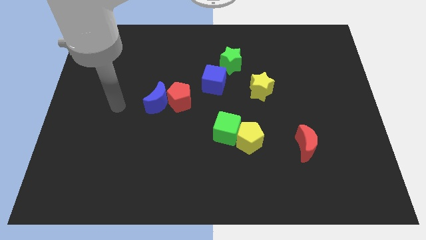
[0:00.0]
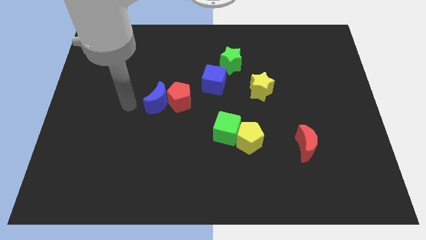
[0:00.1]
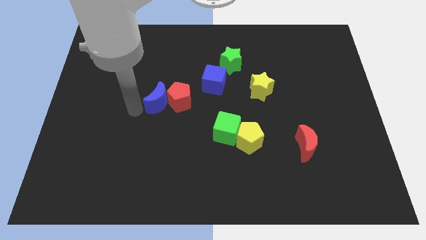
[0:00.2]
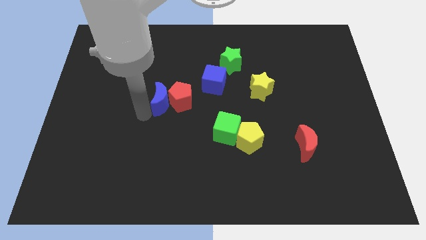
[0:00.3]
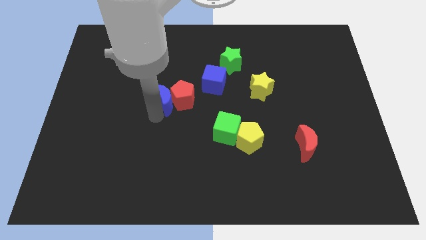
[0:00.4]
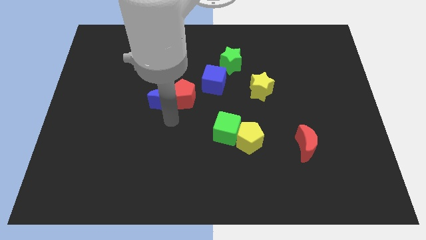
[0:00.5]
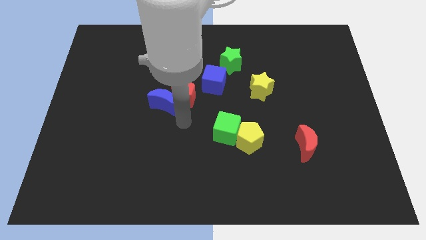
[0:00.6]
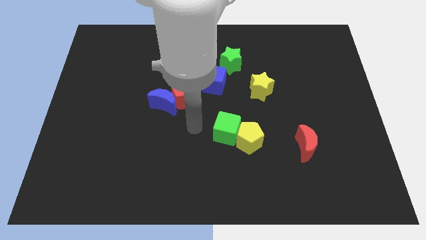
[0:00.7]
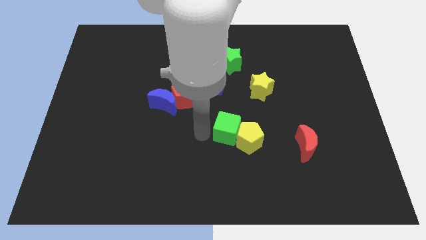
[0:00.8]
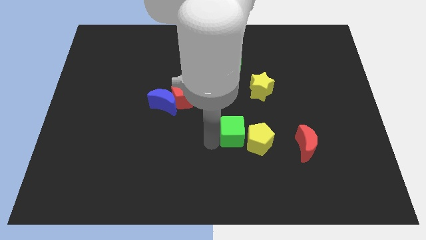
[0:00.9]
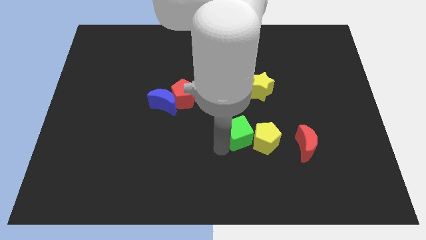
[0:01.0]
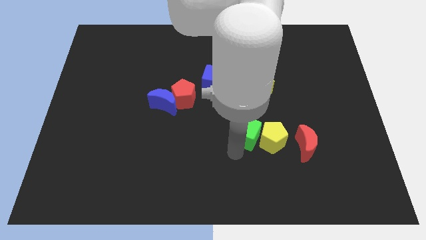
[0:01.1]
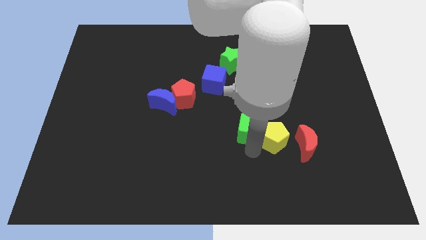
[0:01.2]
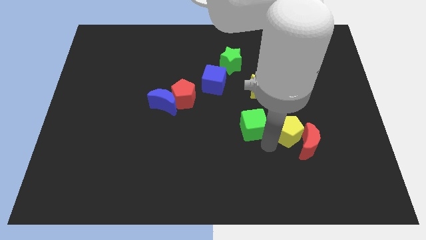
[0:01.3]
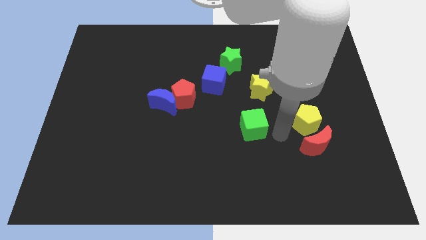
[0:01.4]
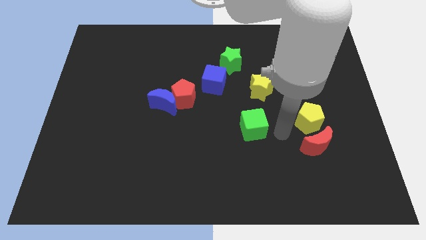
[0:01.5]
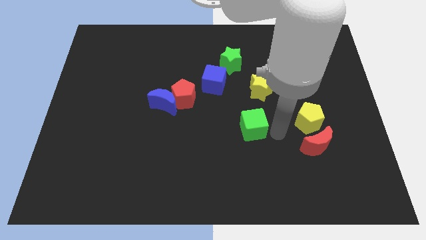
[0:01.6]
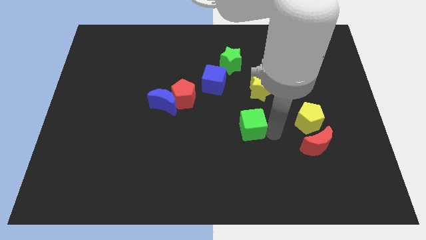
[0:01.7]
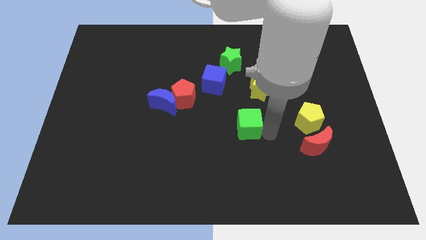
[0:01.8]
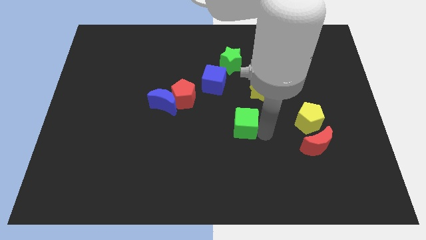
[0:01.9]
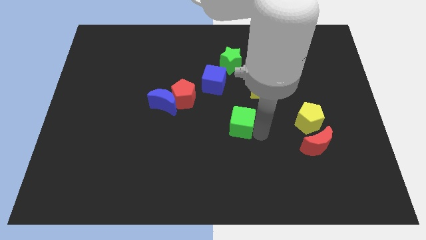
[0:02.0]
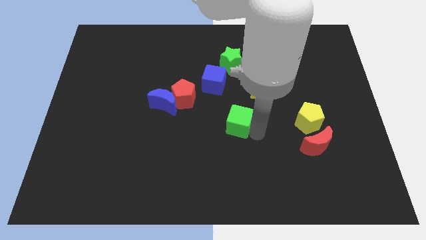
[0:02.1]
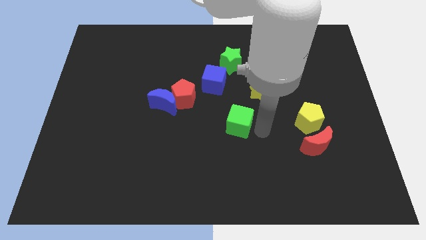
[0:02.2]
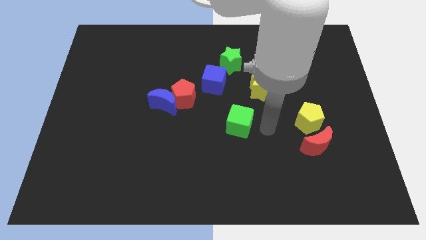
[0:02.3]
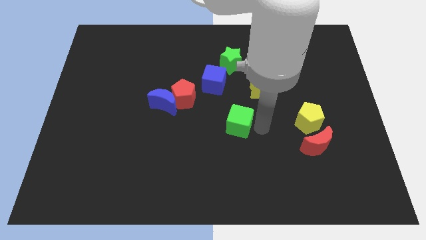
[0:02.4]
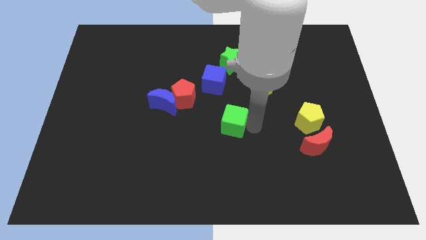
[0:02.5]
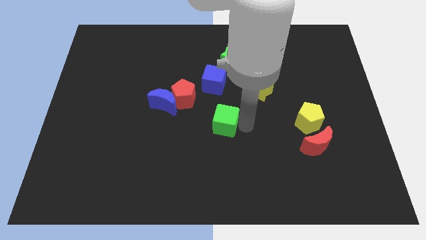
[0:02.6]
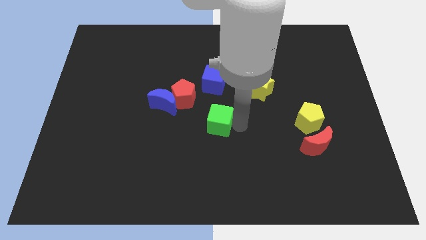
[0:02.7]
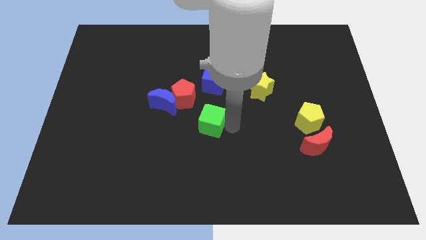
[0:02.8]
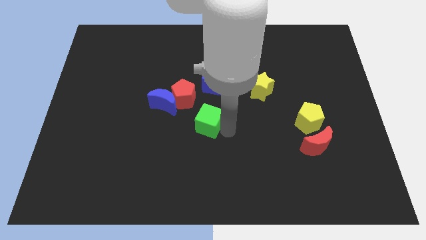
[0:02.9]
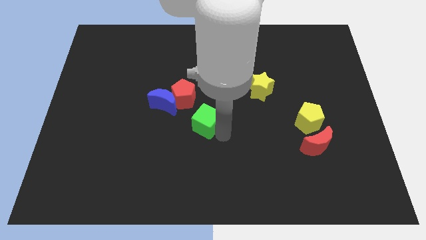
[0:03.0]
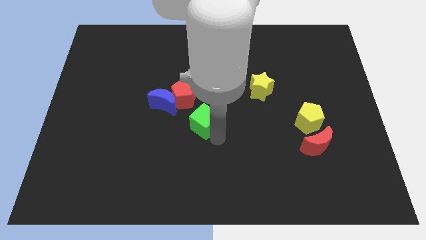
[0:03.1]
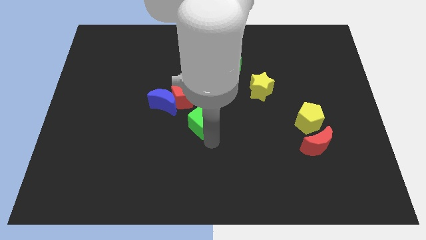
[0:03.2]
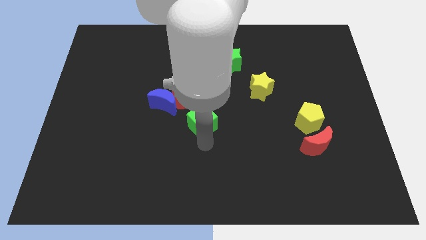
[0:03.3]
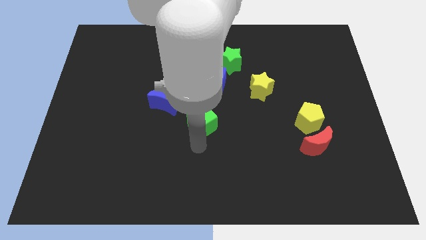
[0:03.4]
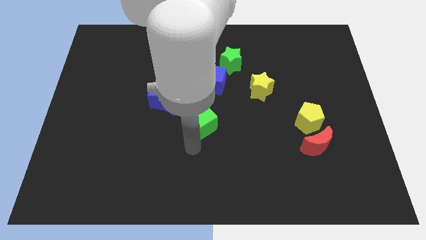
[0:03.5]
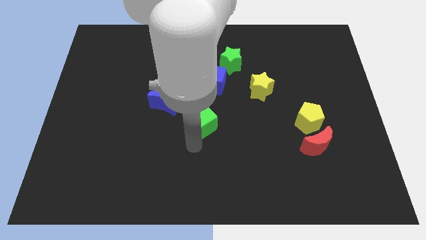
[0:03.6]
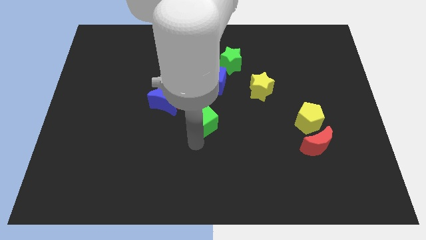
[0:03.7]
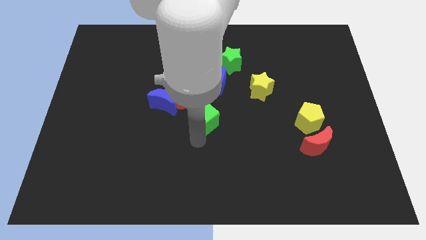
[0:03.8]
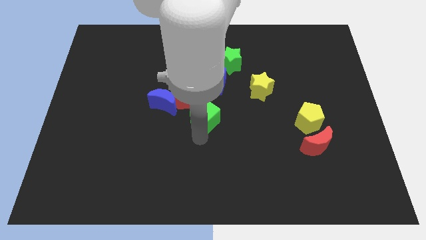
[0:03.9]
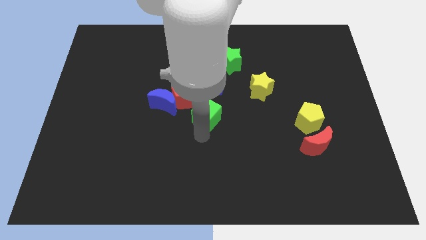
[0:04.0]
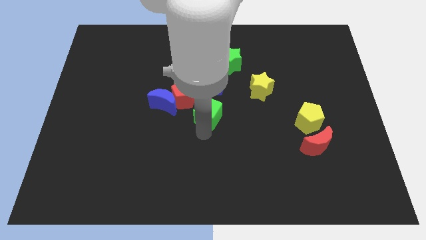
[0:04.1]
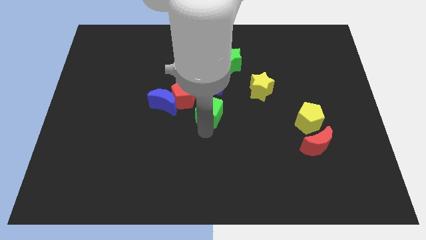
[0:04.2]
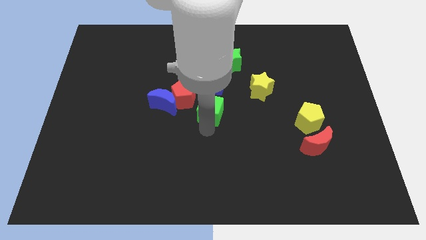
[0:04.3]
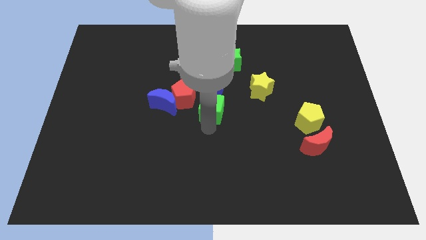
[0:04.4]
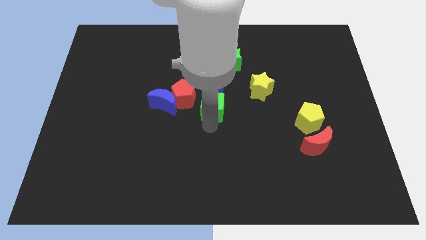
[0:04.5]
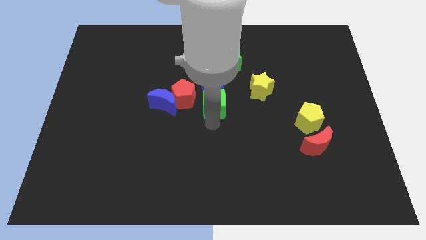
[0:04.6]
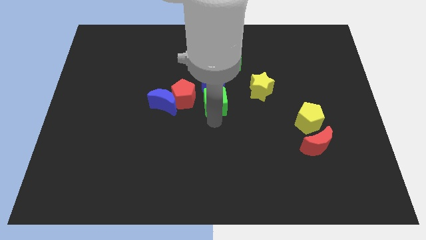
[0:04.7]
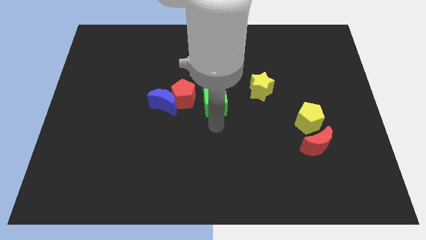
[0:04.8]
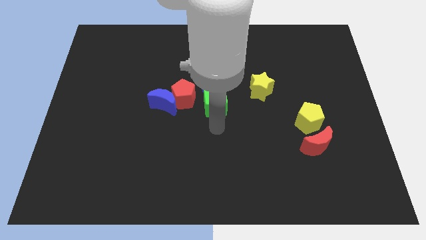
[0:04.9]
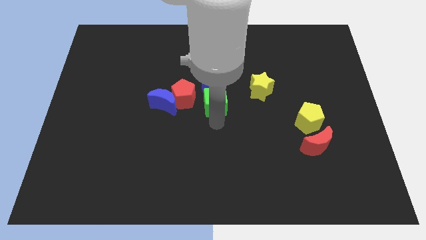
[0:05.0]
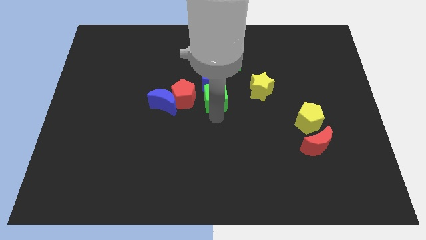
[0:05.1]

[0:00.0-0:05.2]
slide the green cube to the blue cube
